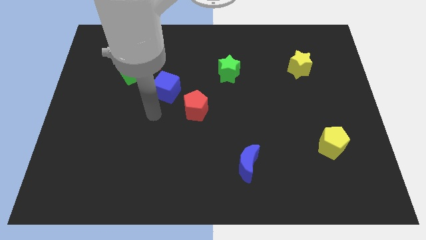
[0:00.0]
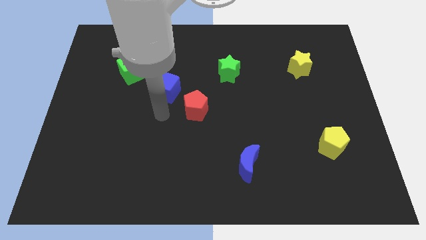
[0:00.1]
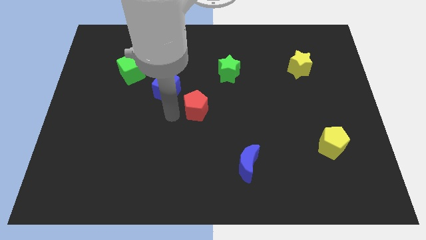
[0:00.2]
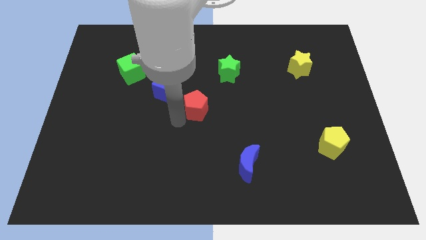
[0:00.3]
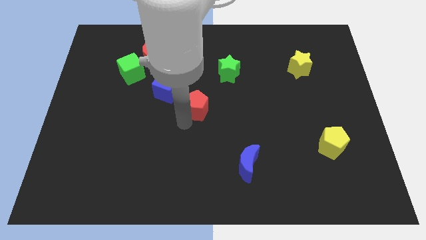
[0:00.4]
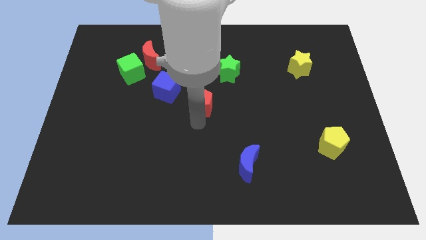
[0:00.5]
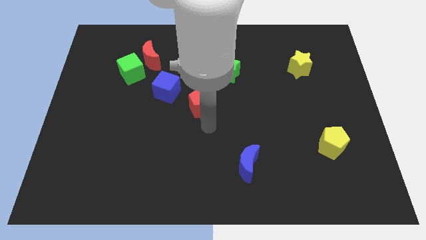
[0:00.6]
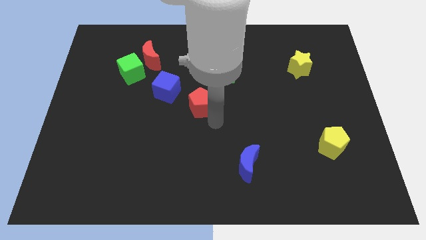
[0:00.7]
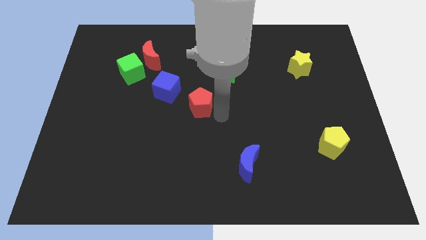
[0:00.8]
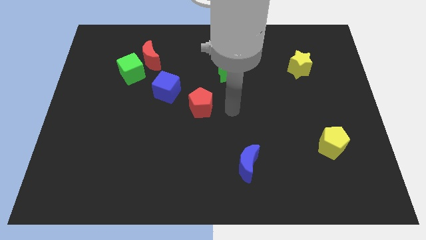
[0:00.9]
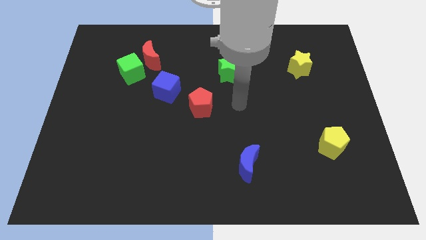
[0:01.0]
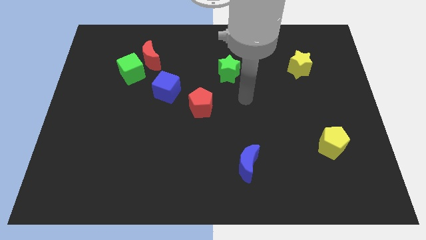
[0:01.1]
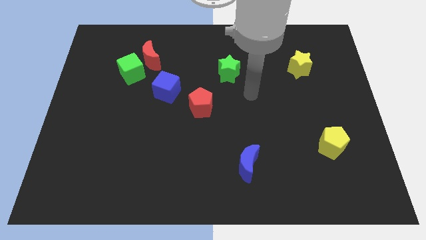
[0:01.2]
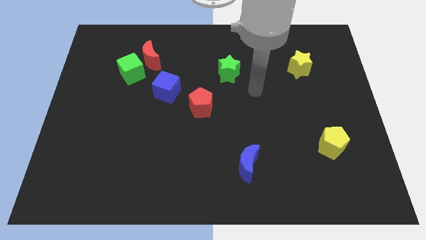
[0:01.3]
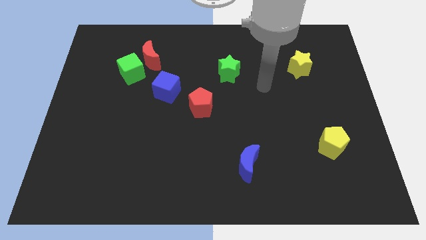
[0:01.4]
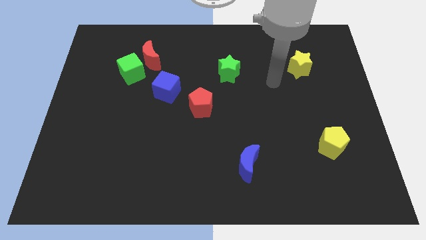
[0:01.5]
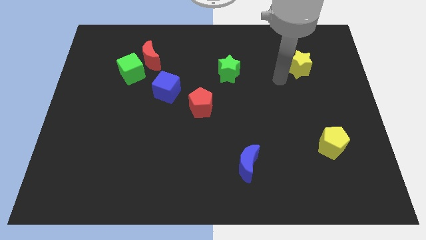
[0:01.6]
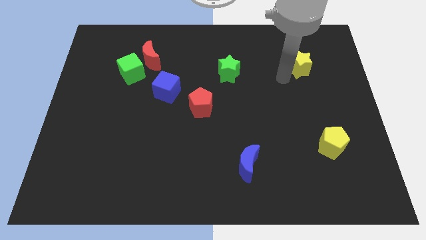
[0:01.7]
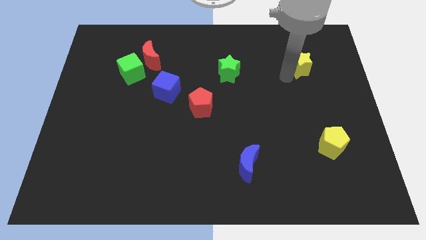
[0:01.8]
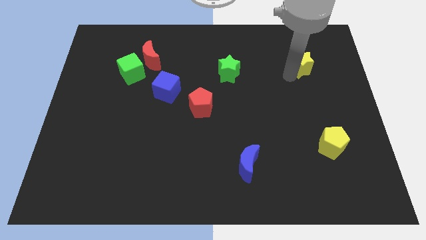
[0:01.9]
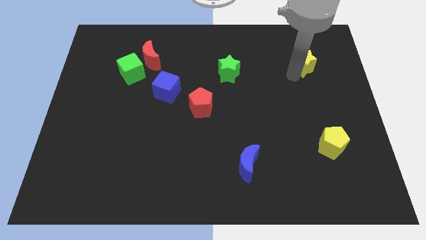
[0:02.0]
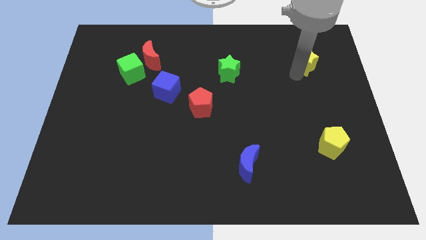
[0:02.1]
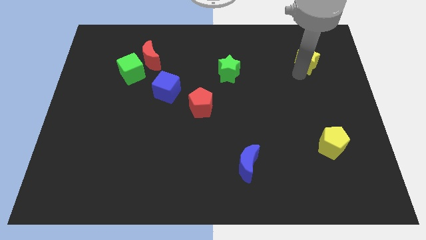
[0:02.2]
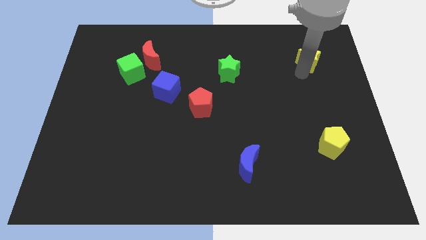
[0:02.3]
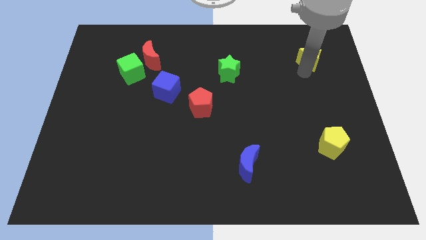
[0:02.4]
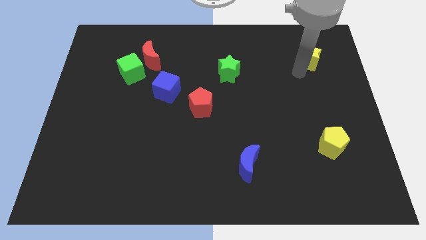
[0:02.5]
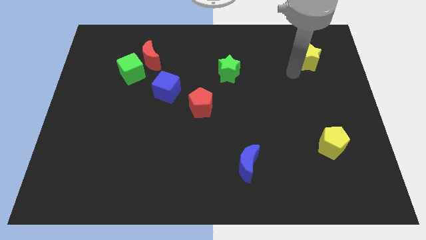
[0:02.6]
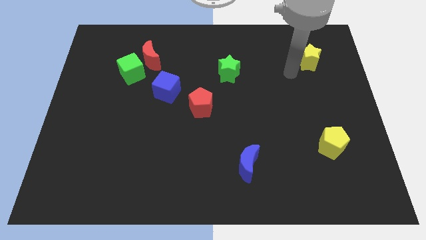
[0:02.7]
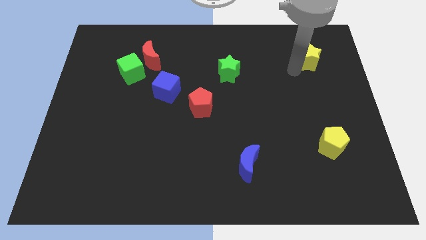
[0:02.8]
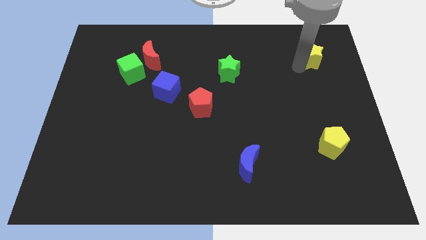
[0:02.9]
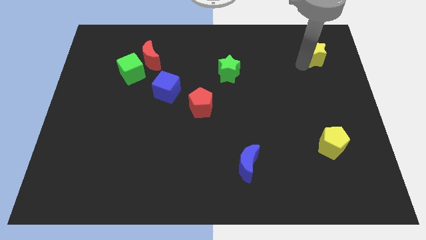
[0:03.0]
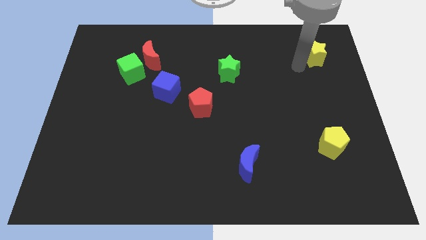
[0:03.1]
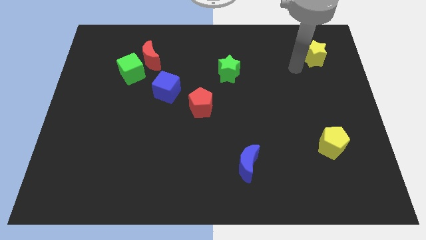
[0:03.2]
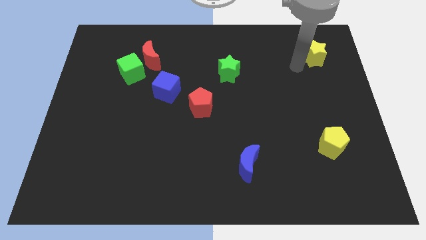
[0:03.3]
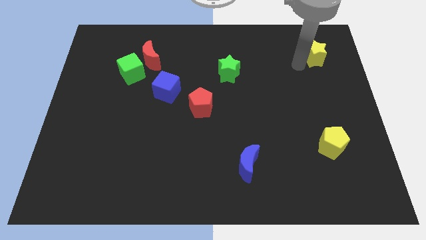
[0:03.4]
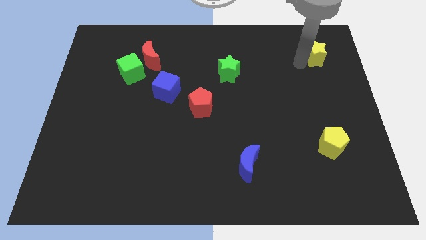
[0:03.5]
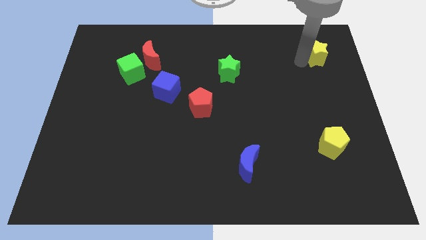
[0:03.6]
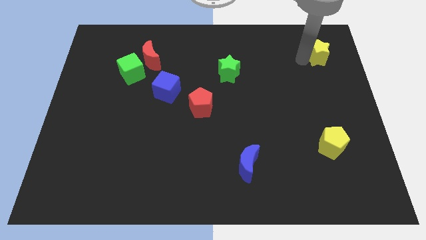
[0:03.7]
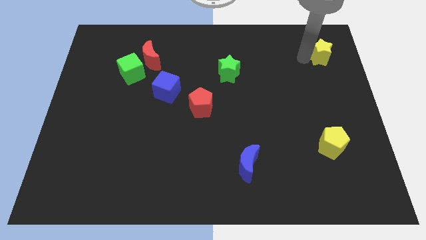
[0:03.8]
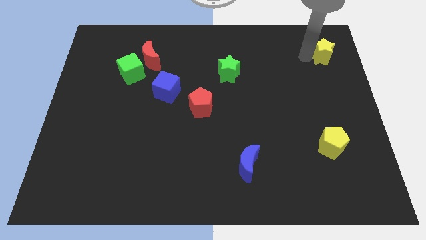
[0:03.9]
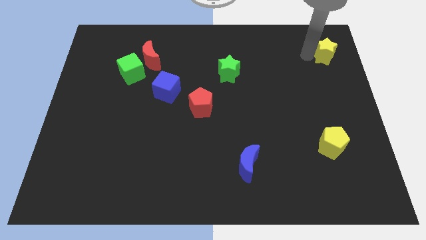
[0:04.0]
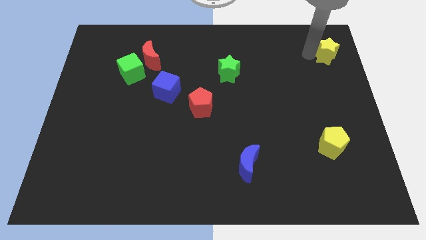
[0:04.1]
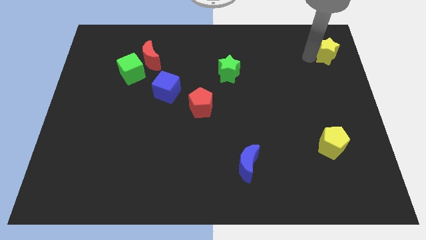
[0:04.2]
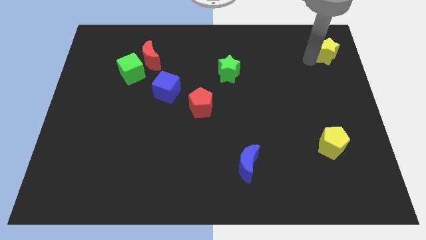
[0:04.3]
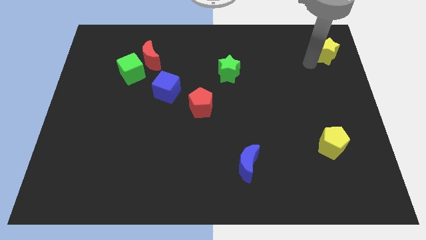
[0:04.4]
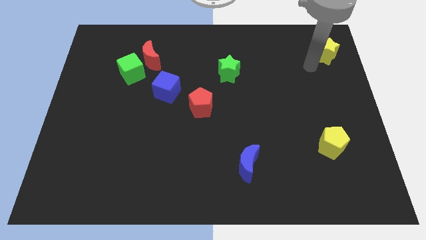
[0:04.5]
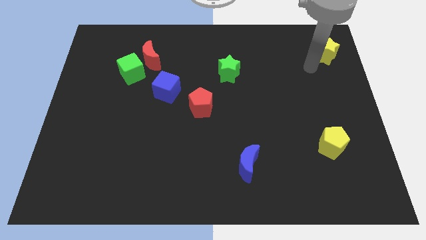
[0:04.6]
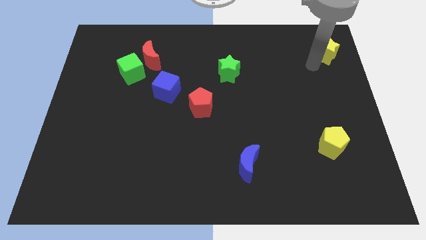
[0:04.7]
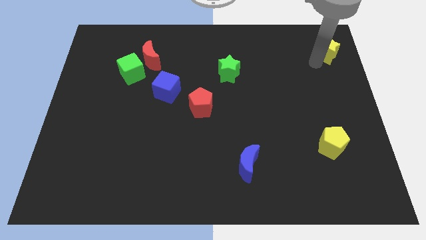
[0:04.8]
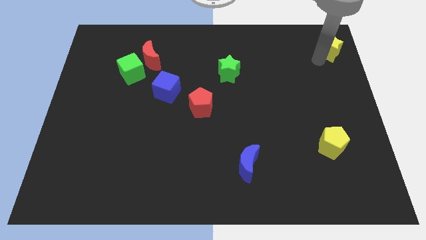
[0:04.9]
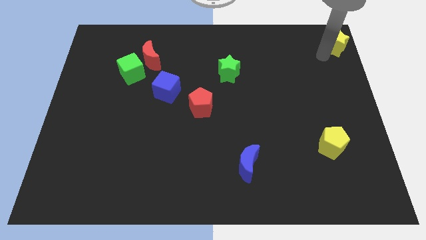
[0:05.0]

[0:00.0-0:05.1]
put the yellow star to the top right corner

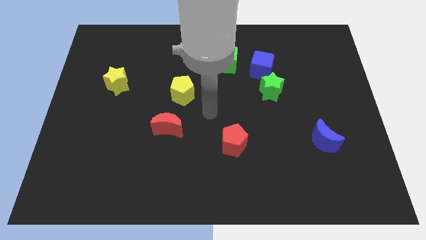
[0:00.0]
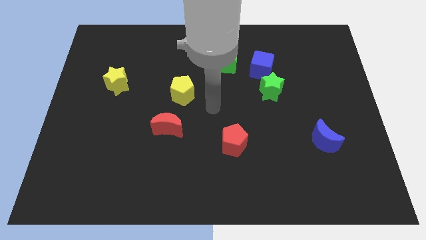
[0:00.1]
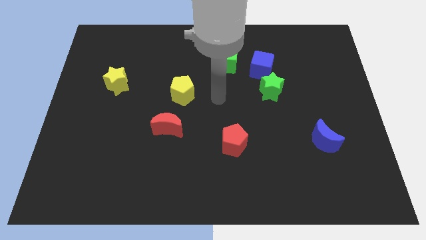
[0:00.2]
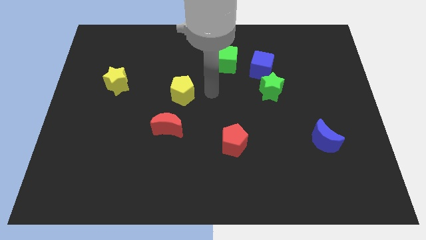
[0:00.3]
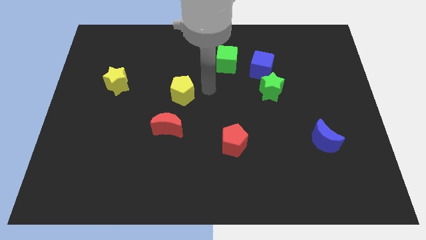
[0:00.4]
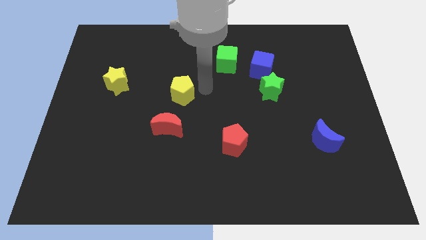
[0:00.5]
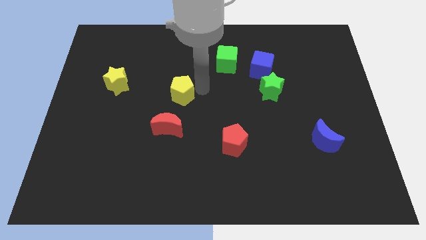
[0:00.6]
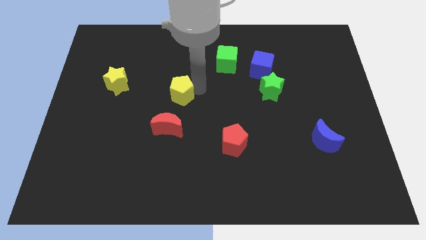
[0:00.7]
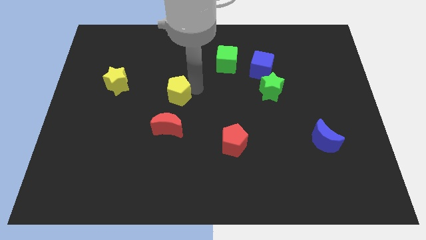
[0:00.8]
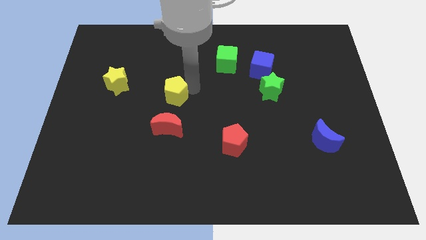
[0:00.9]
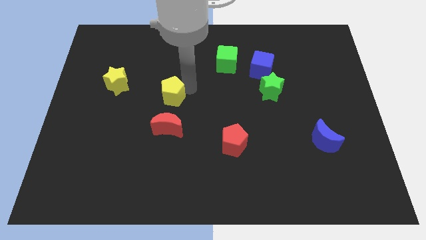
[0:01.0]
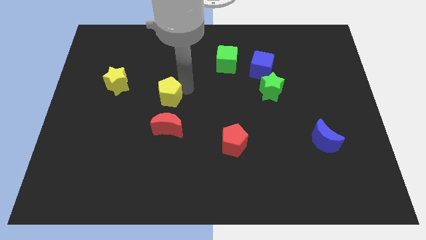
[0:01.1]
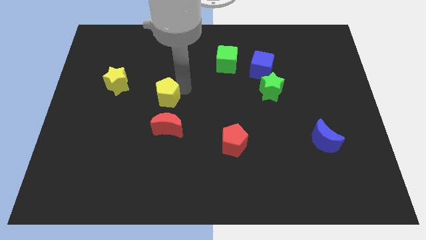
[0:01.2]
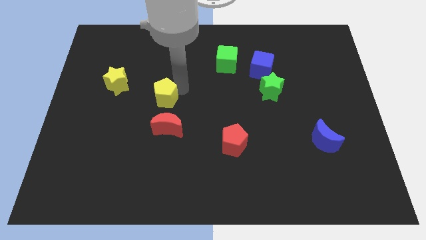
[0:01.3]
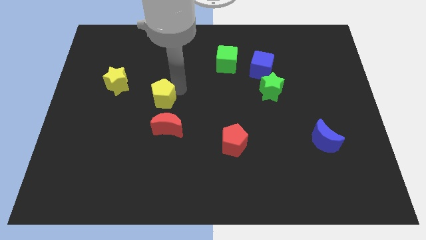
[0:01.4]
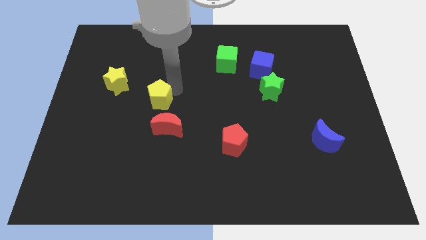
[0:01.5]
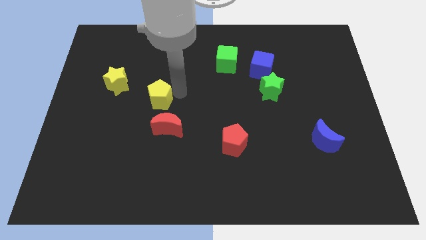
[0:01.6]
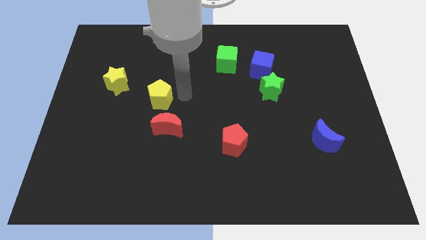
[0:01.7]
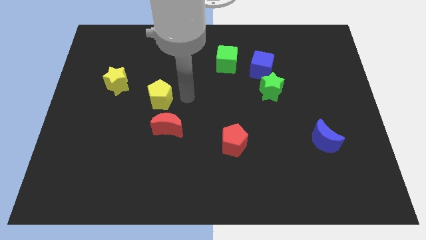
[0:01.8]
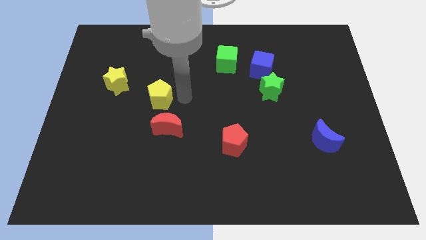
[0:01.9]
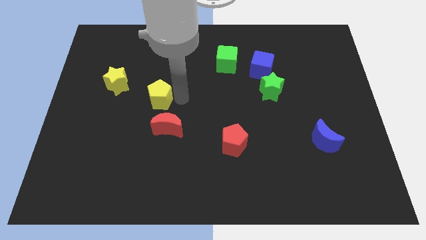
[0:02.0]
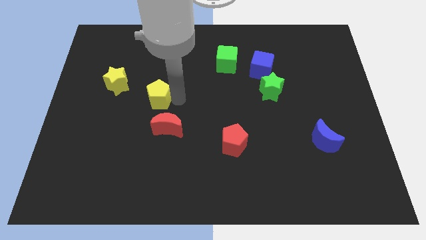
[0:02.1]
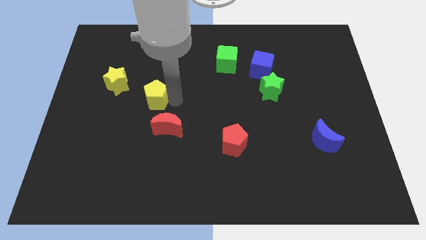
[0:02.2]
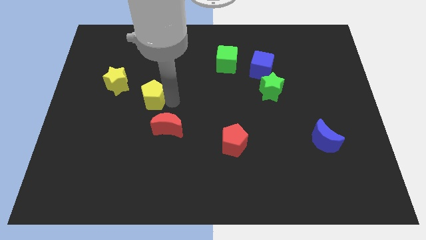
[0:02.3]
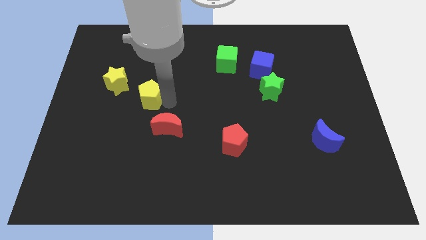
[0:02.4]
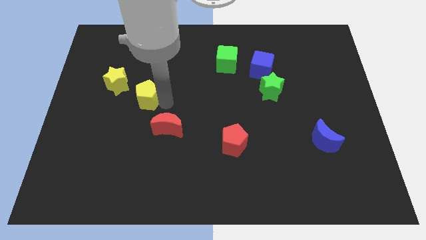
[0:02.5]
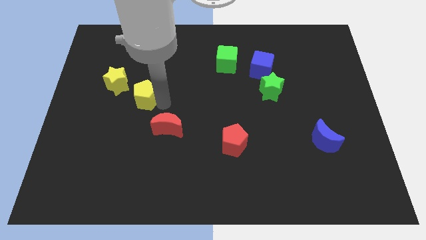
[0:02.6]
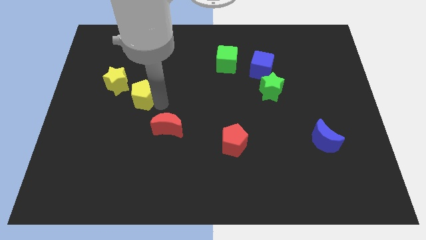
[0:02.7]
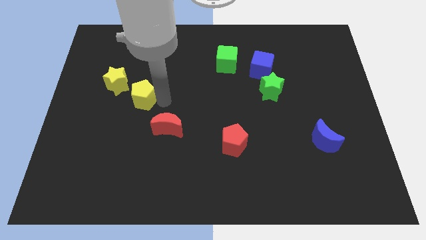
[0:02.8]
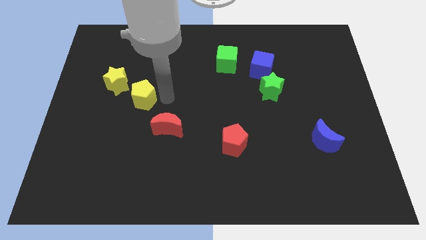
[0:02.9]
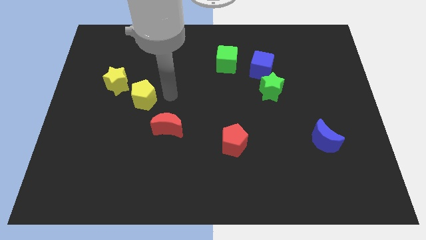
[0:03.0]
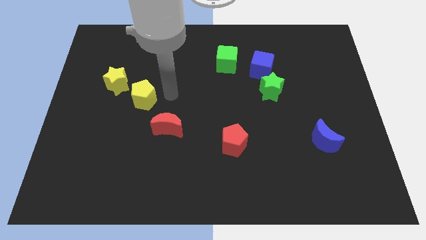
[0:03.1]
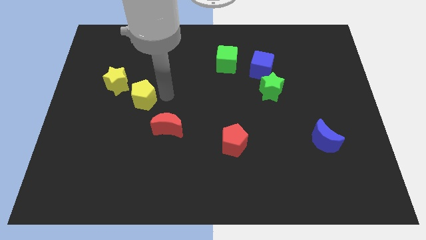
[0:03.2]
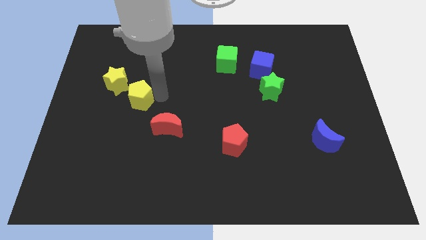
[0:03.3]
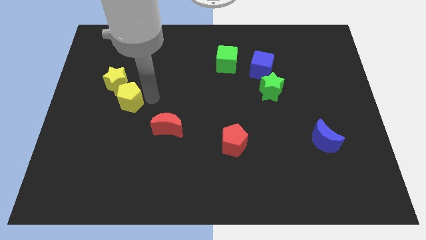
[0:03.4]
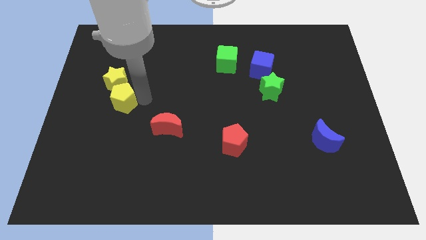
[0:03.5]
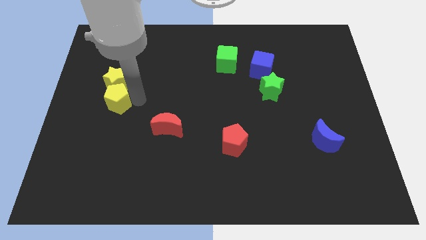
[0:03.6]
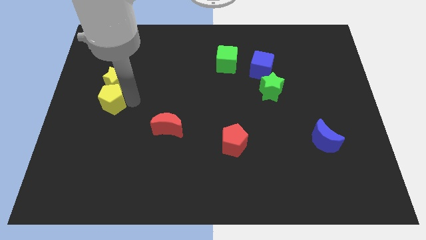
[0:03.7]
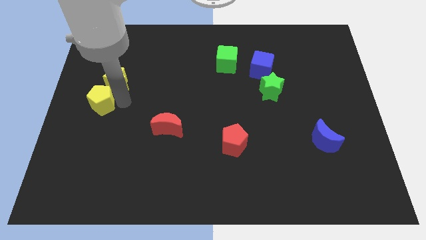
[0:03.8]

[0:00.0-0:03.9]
move the yellow pentagon to the left side of the board
